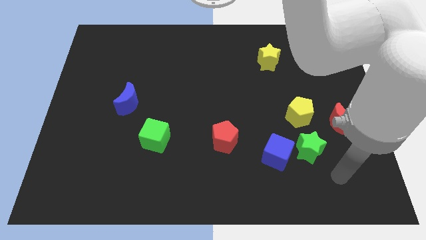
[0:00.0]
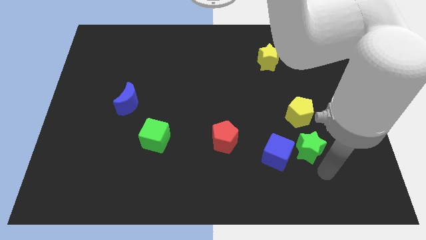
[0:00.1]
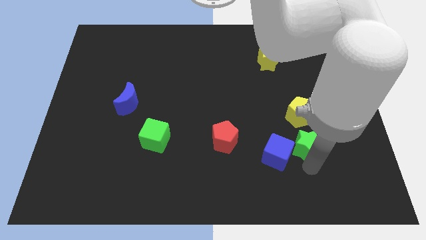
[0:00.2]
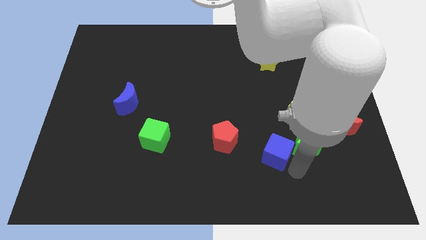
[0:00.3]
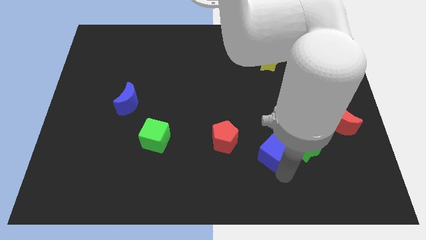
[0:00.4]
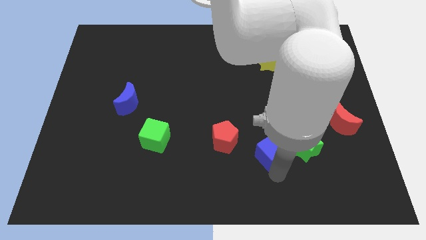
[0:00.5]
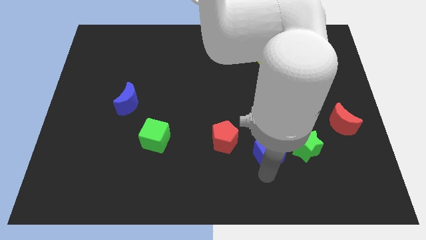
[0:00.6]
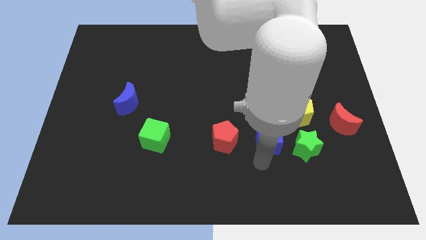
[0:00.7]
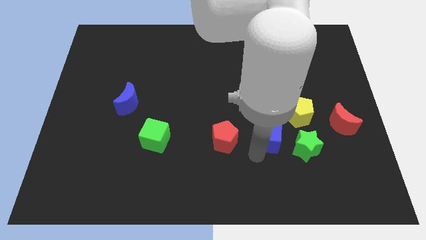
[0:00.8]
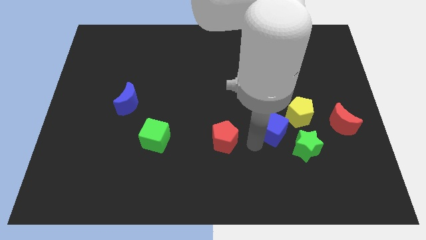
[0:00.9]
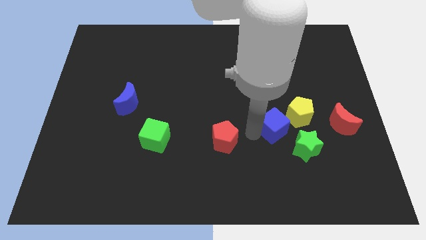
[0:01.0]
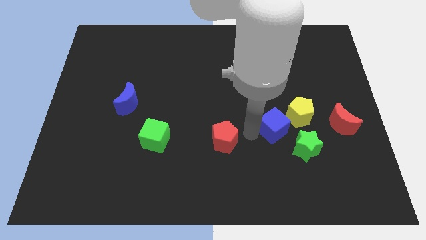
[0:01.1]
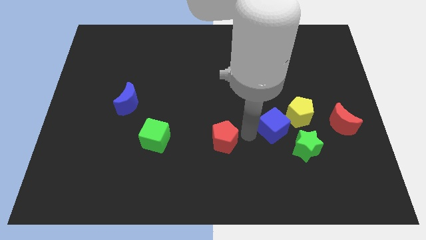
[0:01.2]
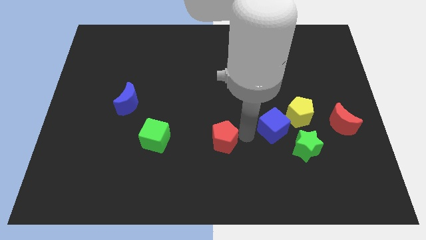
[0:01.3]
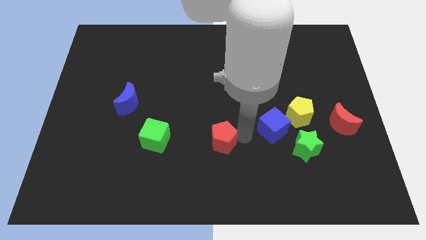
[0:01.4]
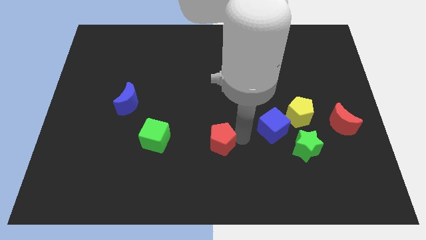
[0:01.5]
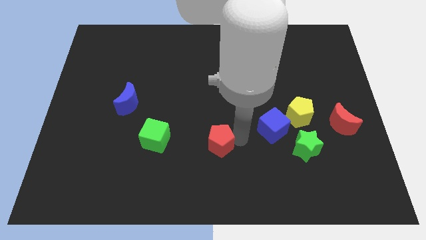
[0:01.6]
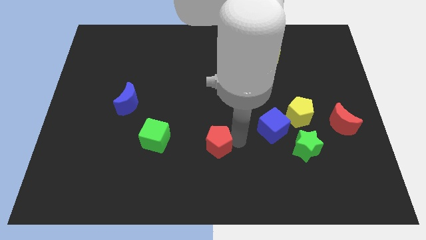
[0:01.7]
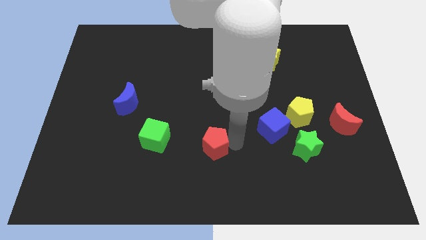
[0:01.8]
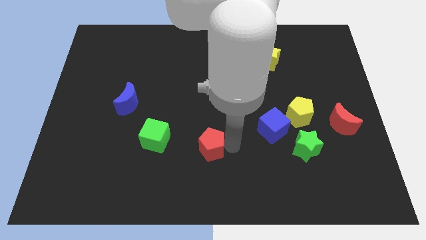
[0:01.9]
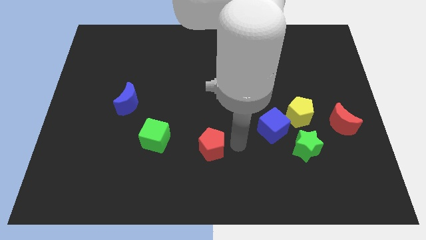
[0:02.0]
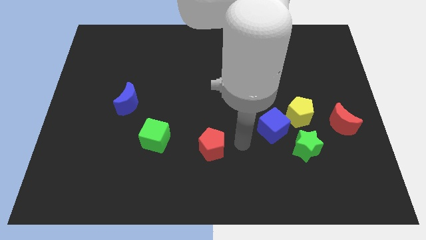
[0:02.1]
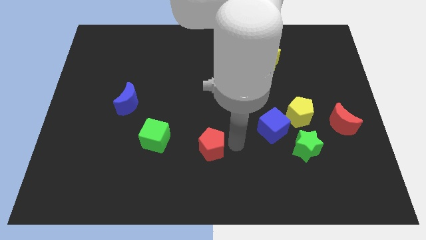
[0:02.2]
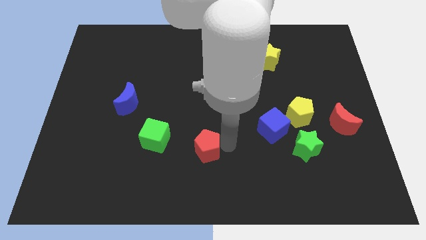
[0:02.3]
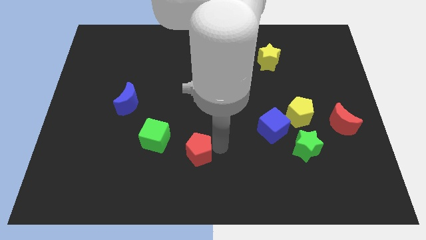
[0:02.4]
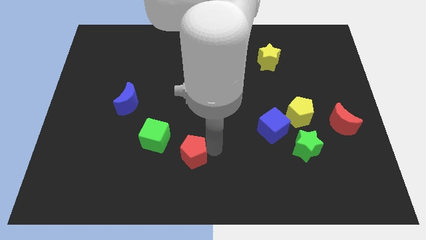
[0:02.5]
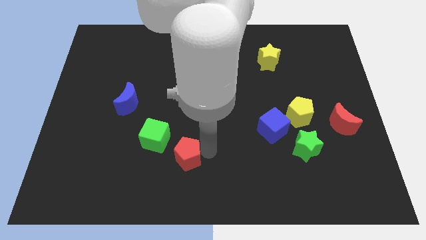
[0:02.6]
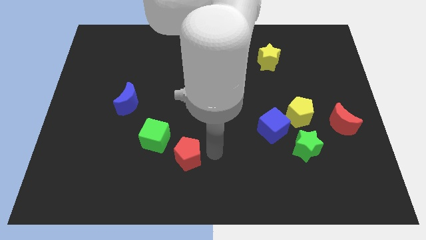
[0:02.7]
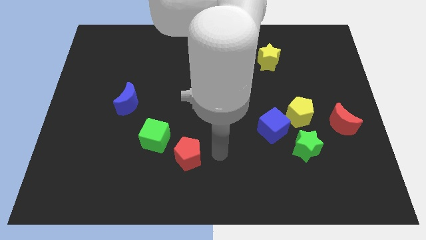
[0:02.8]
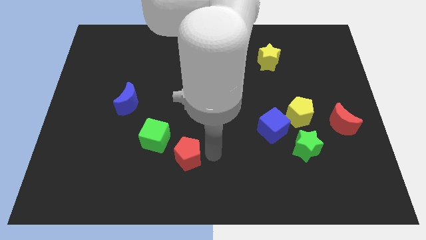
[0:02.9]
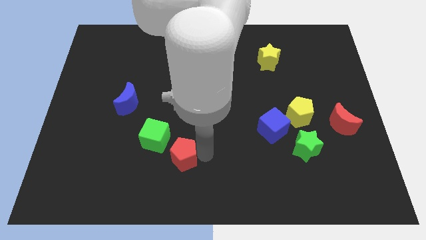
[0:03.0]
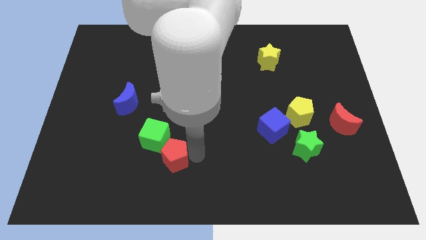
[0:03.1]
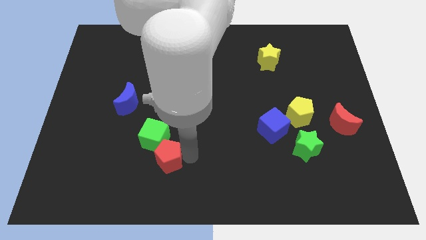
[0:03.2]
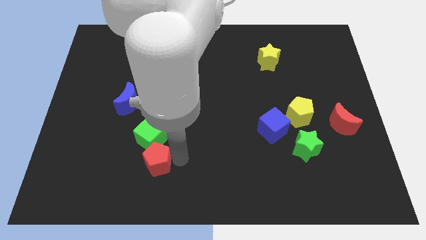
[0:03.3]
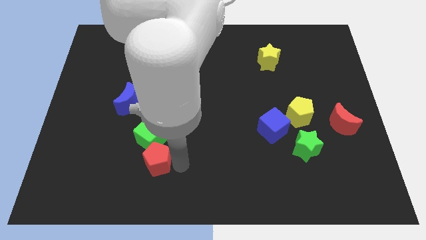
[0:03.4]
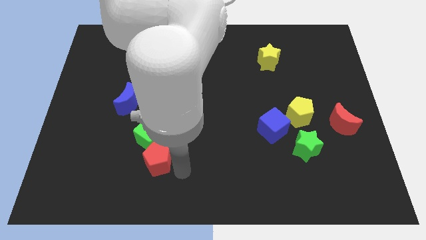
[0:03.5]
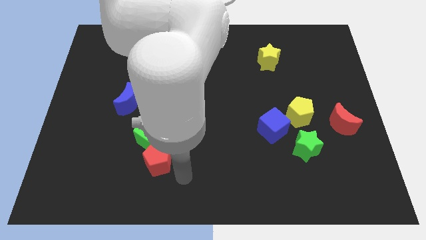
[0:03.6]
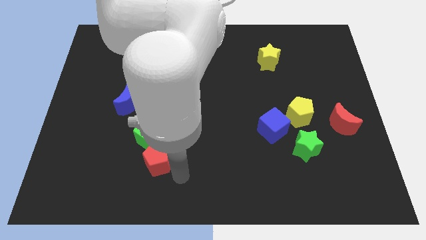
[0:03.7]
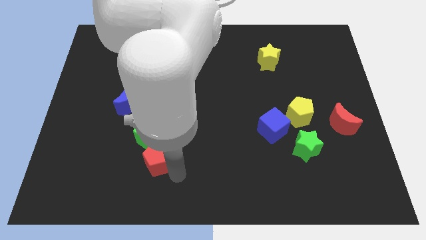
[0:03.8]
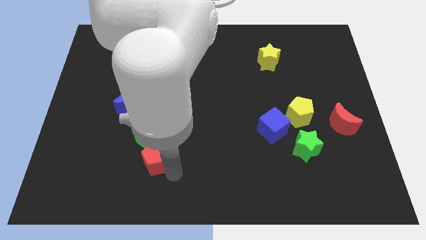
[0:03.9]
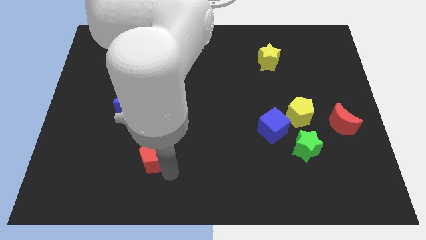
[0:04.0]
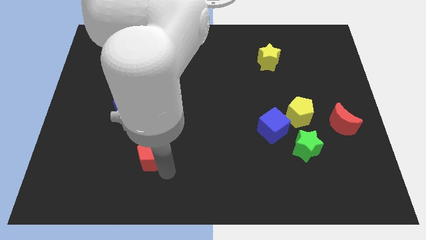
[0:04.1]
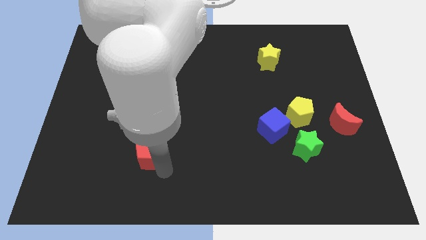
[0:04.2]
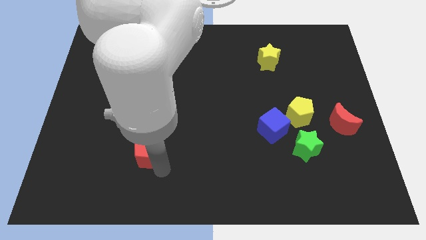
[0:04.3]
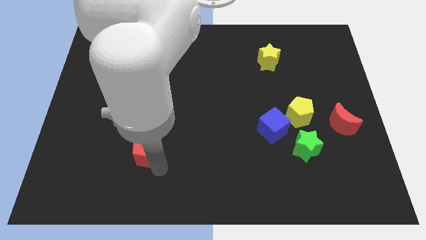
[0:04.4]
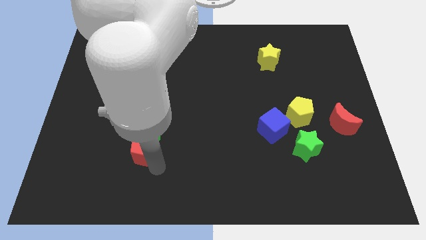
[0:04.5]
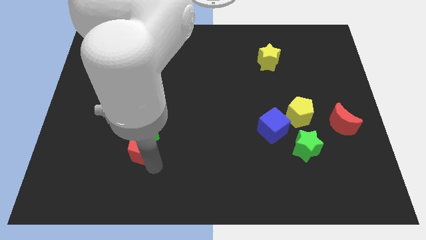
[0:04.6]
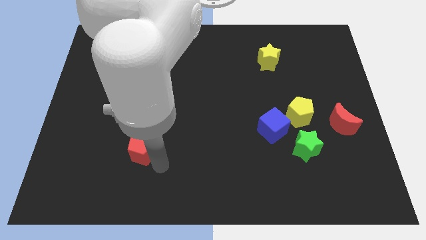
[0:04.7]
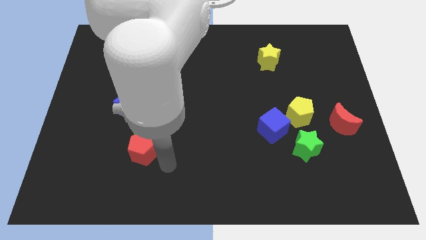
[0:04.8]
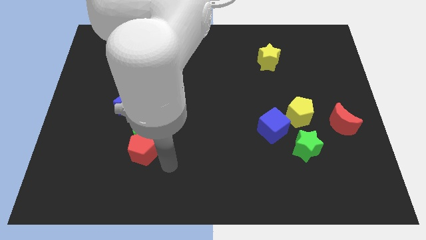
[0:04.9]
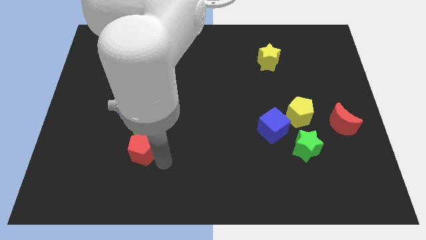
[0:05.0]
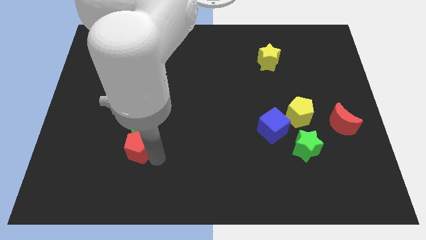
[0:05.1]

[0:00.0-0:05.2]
push the red pentagon below the blue moon

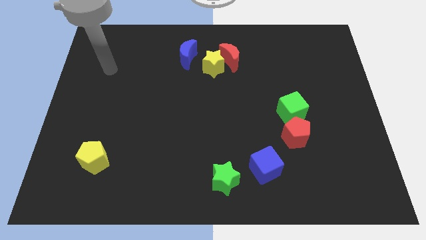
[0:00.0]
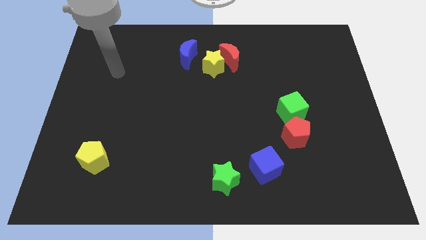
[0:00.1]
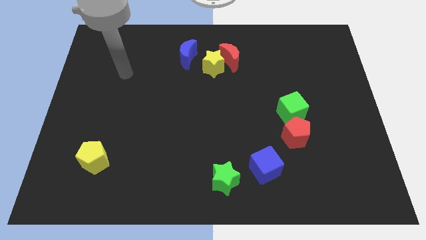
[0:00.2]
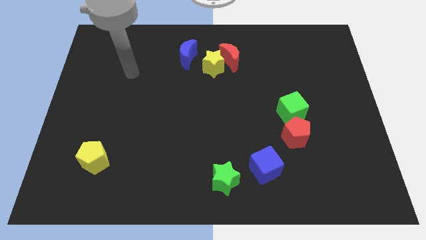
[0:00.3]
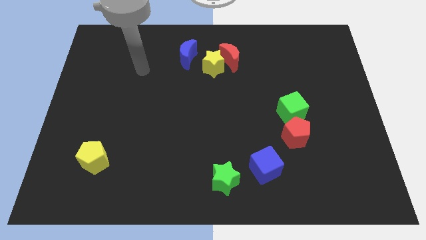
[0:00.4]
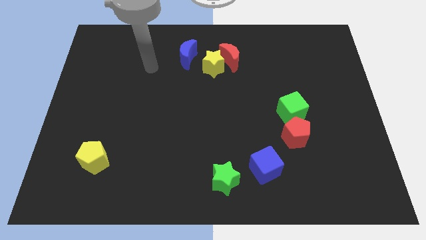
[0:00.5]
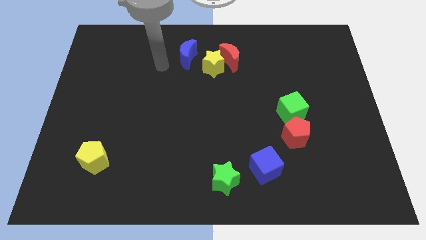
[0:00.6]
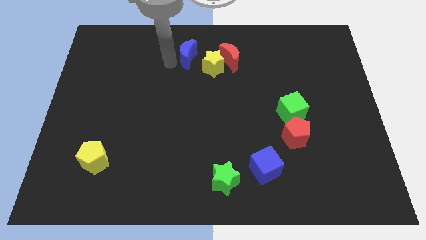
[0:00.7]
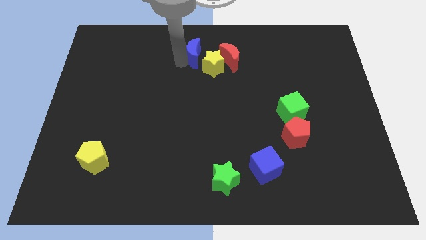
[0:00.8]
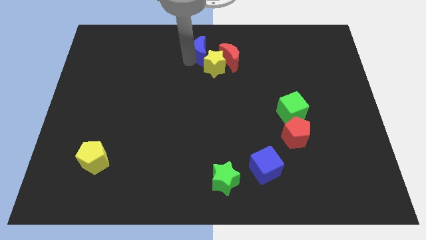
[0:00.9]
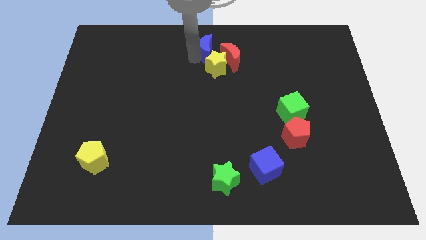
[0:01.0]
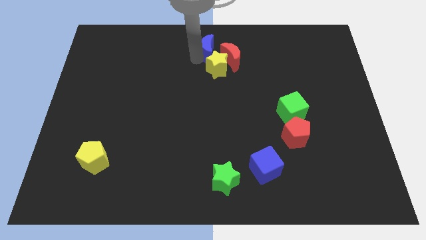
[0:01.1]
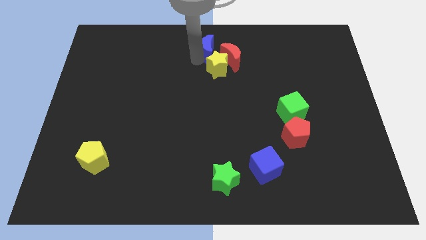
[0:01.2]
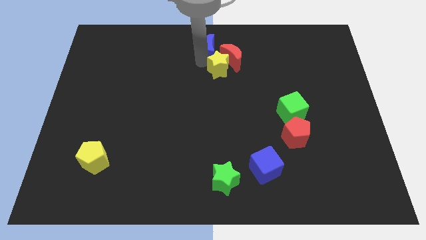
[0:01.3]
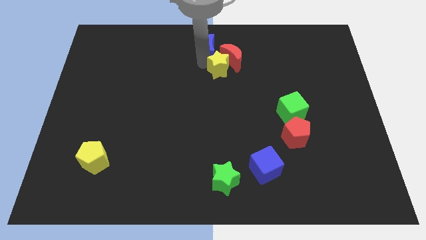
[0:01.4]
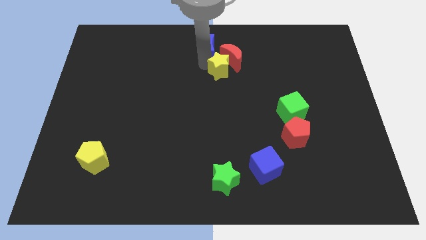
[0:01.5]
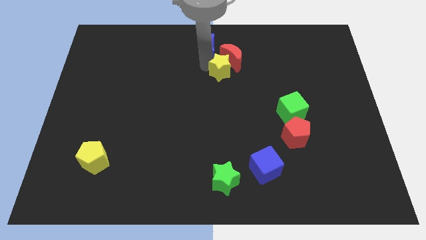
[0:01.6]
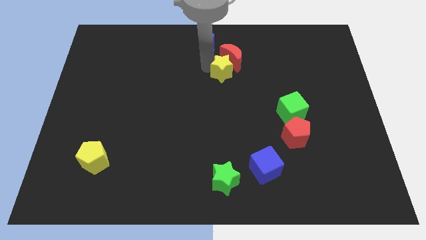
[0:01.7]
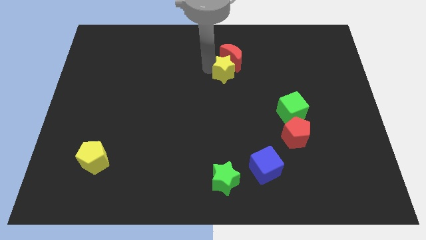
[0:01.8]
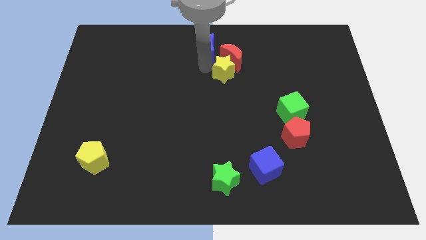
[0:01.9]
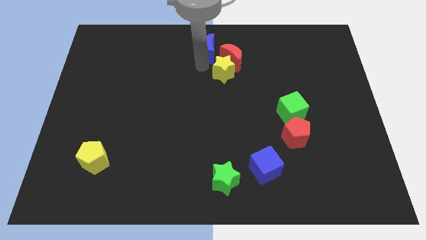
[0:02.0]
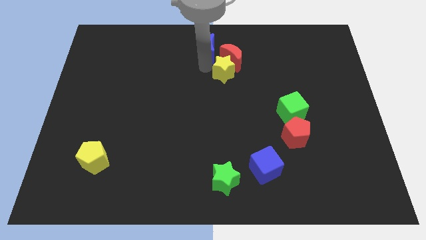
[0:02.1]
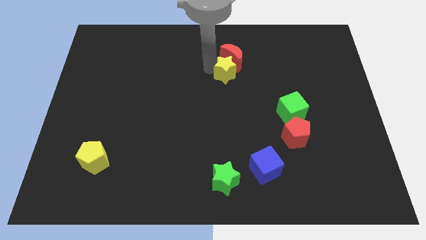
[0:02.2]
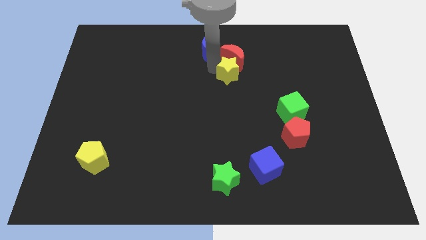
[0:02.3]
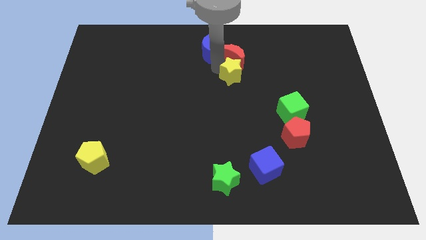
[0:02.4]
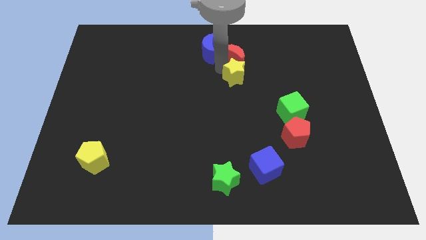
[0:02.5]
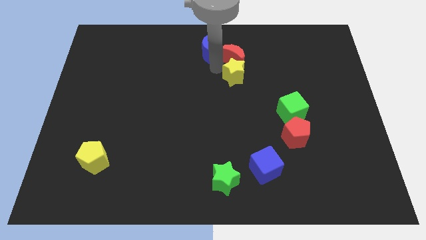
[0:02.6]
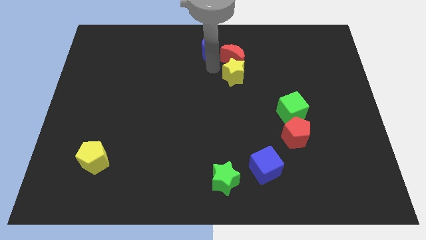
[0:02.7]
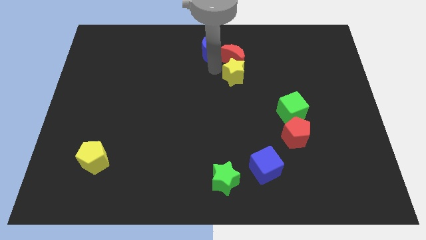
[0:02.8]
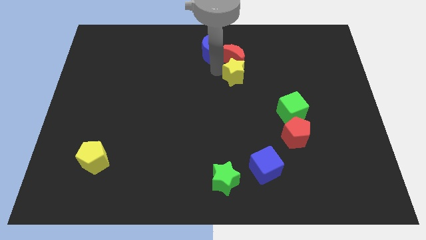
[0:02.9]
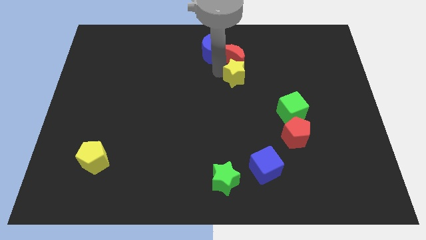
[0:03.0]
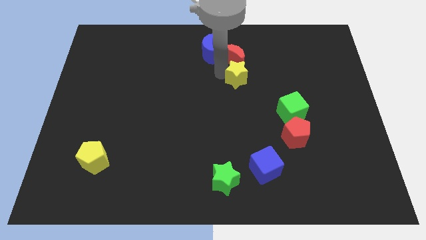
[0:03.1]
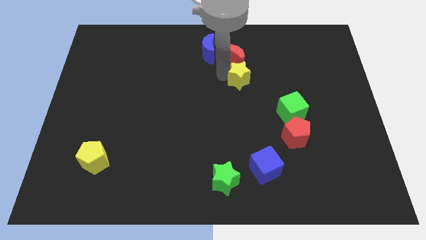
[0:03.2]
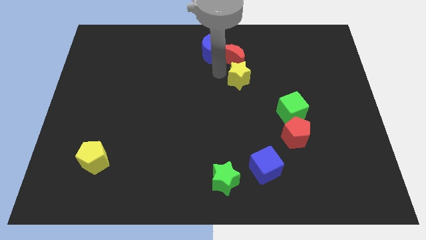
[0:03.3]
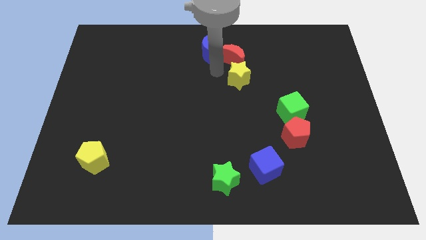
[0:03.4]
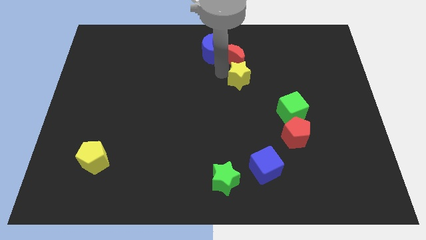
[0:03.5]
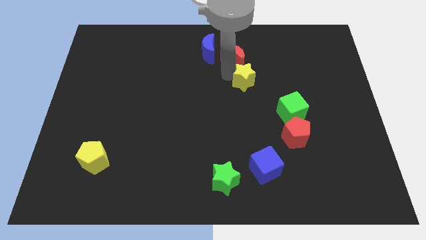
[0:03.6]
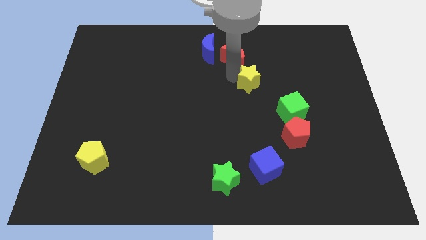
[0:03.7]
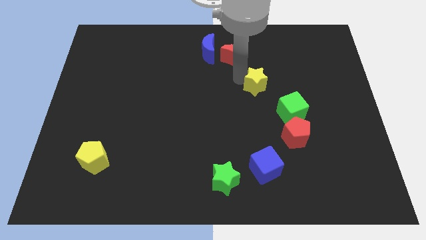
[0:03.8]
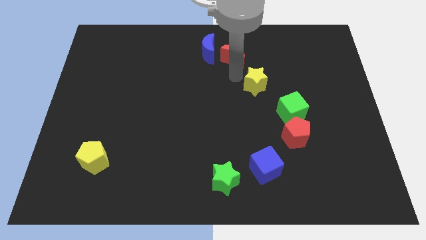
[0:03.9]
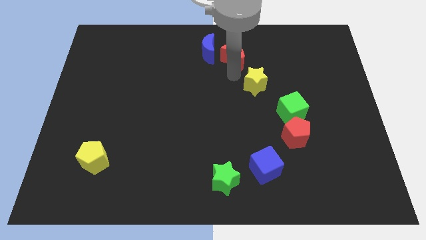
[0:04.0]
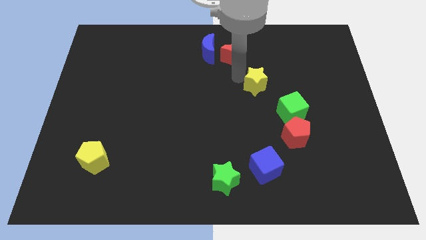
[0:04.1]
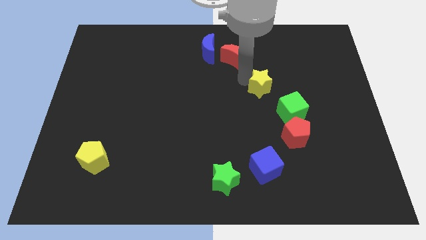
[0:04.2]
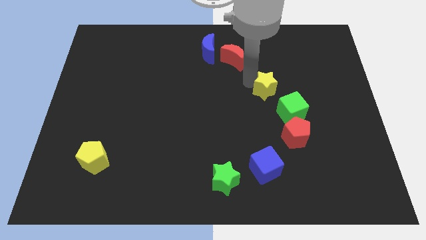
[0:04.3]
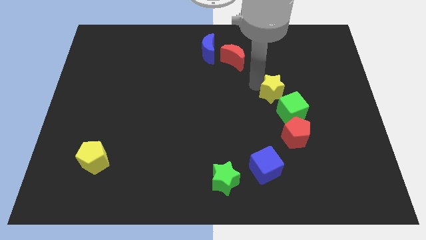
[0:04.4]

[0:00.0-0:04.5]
slide the yellow star to the top of the red pentagon
